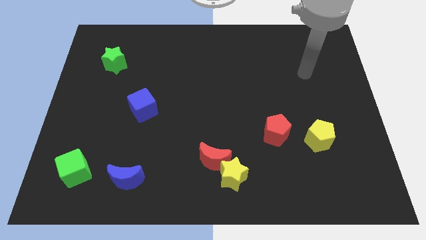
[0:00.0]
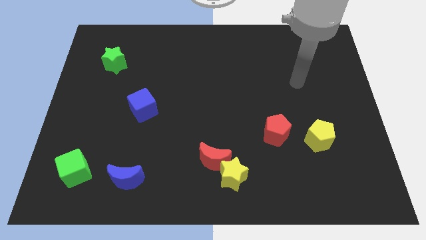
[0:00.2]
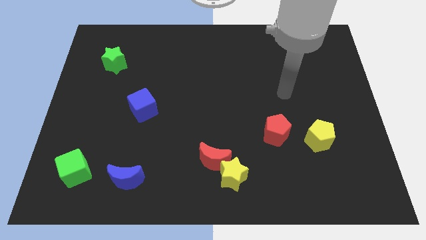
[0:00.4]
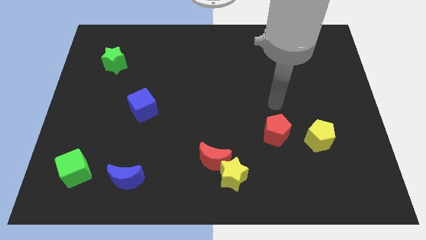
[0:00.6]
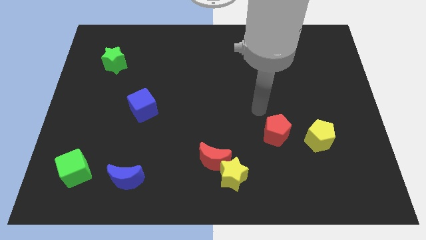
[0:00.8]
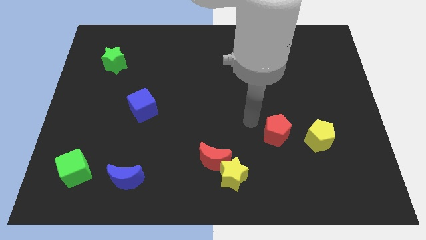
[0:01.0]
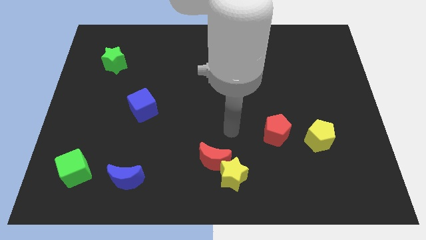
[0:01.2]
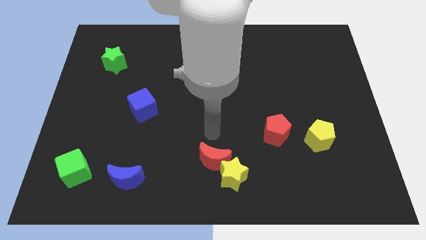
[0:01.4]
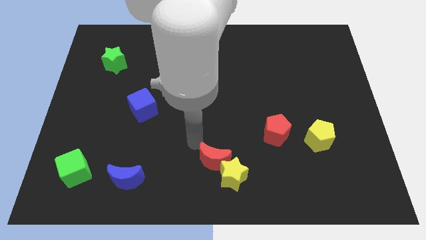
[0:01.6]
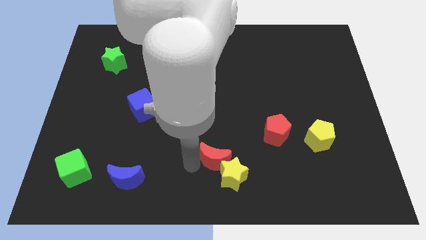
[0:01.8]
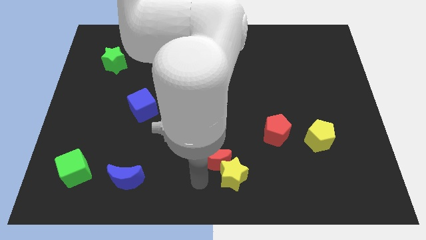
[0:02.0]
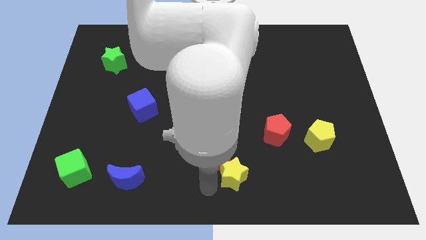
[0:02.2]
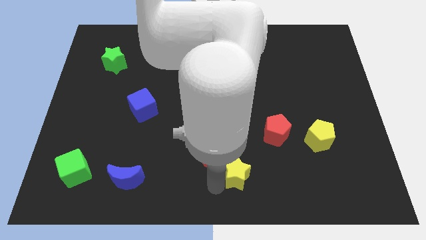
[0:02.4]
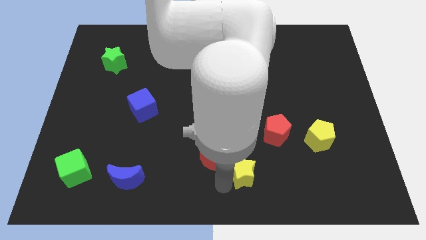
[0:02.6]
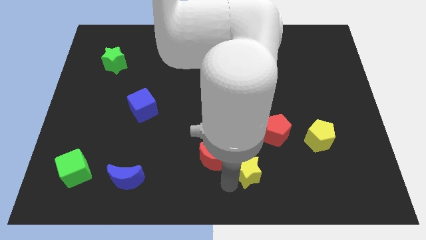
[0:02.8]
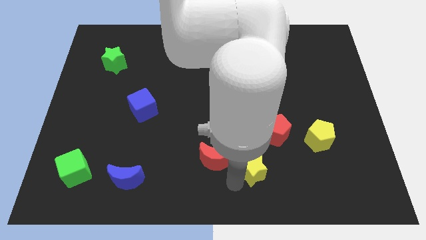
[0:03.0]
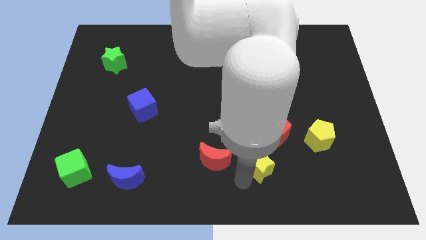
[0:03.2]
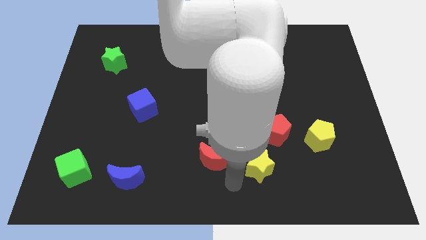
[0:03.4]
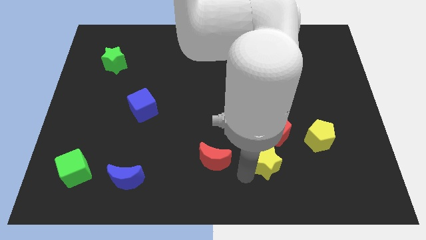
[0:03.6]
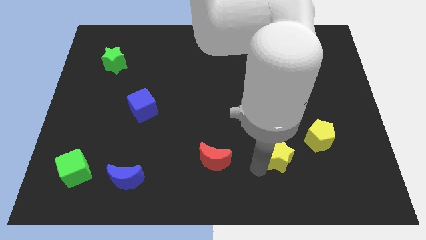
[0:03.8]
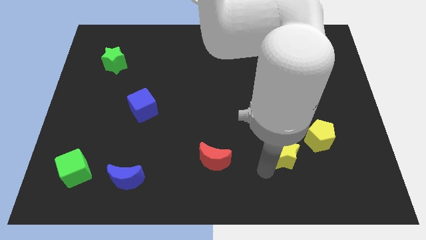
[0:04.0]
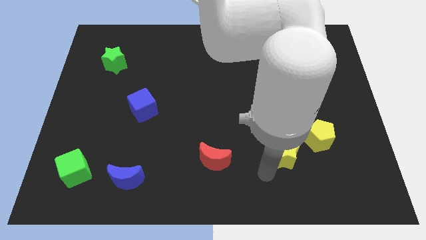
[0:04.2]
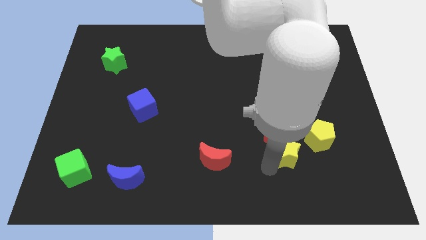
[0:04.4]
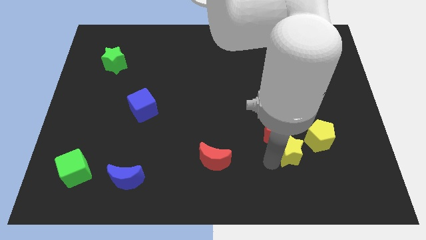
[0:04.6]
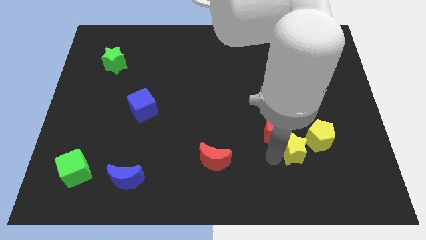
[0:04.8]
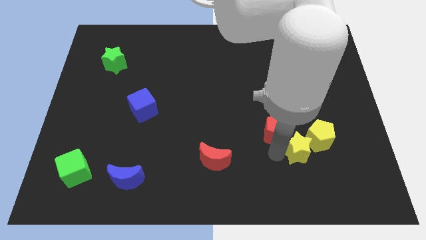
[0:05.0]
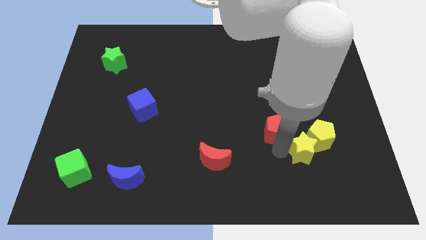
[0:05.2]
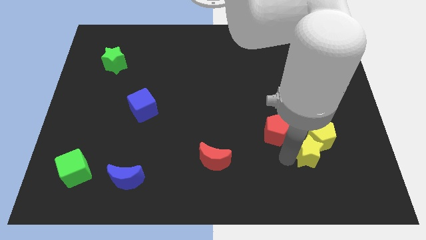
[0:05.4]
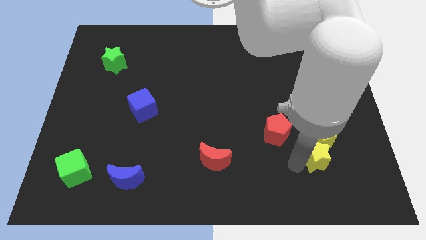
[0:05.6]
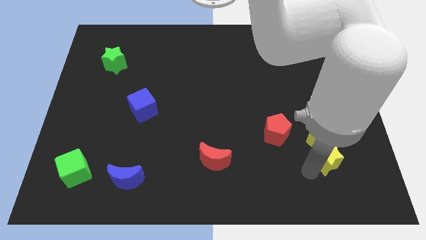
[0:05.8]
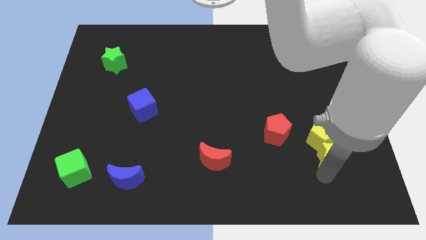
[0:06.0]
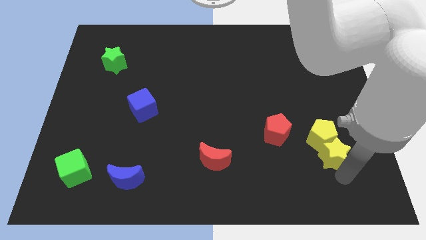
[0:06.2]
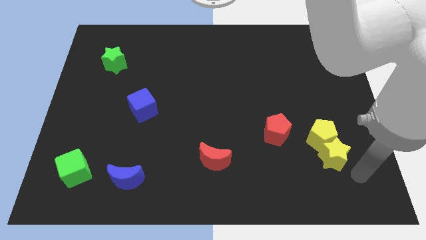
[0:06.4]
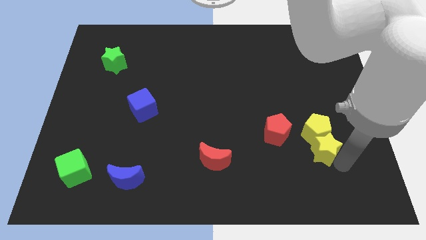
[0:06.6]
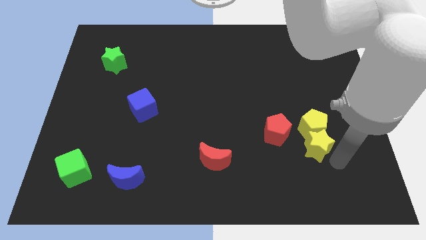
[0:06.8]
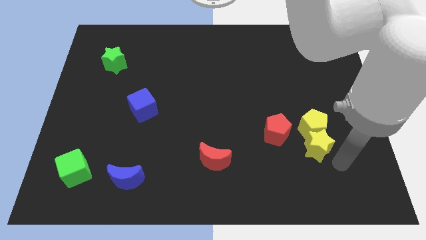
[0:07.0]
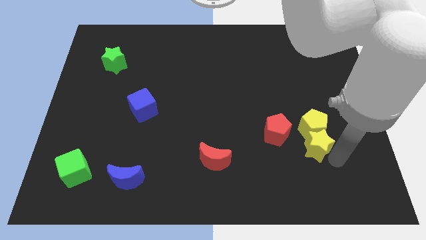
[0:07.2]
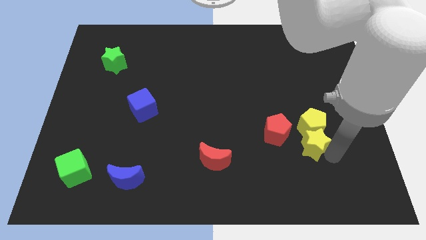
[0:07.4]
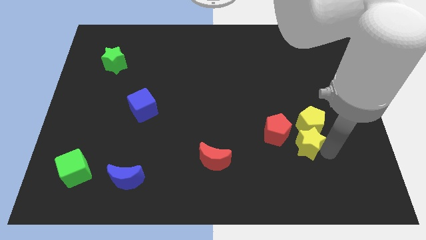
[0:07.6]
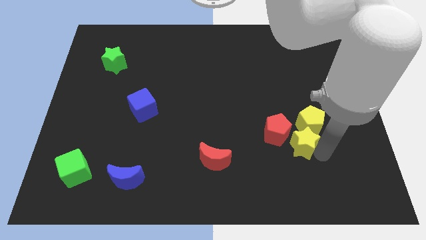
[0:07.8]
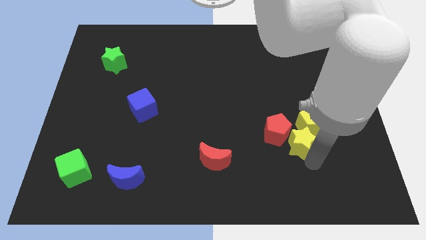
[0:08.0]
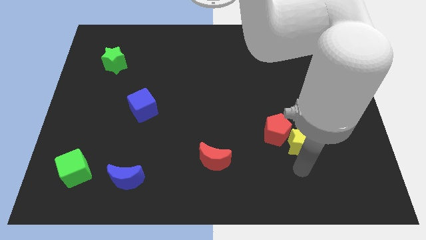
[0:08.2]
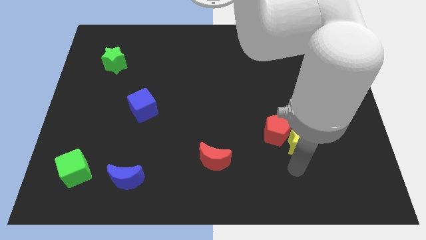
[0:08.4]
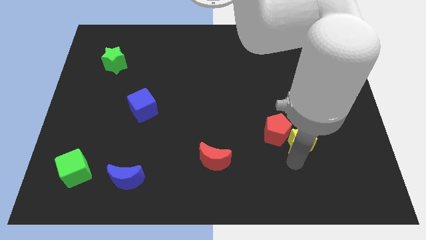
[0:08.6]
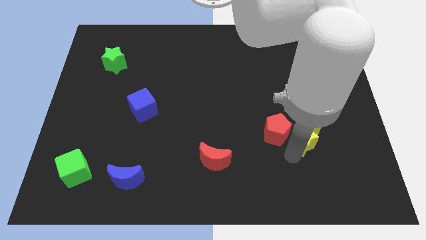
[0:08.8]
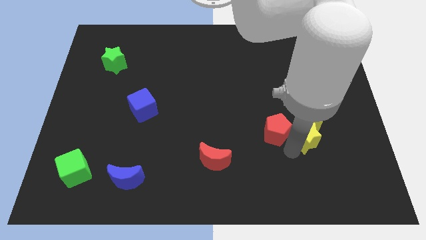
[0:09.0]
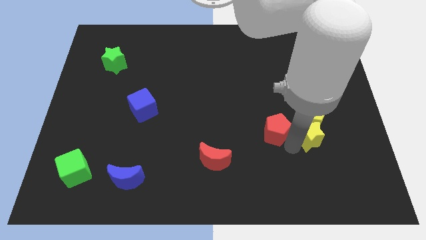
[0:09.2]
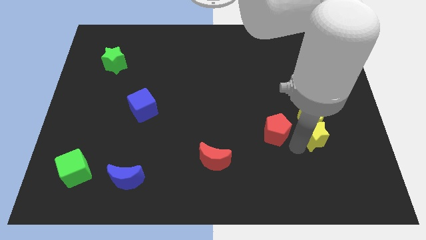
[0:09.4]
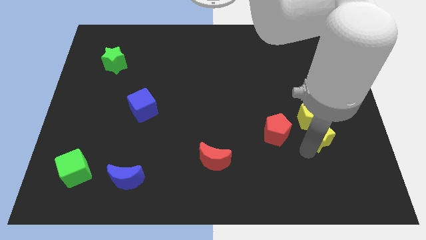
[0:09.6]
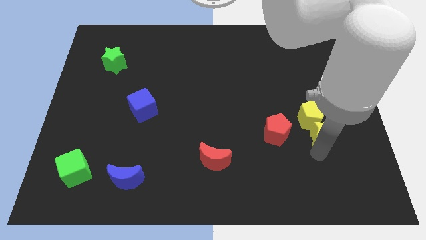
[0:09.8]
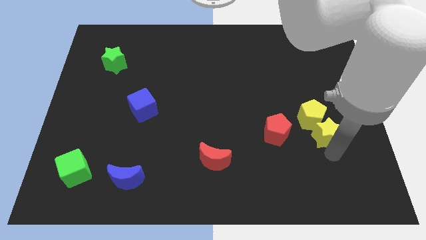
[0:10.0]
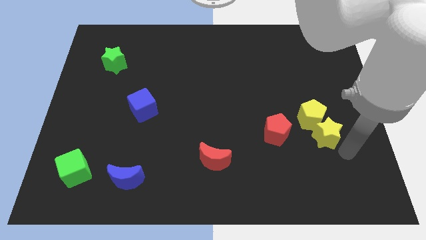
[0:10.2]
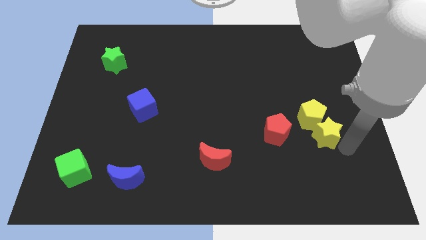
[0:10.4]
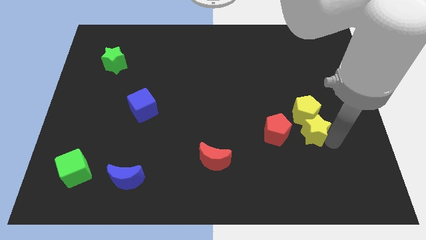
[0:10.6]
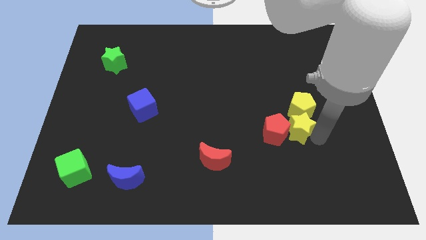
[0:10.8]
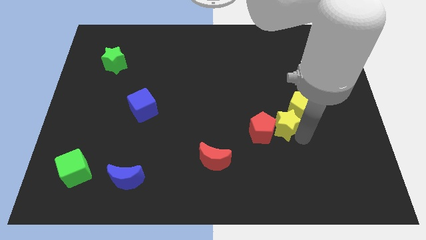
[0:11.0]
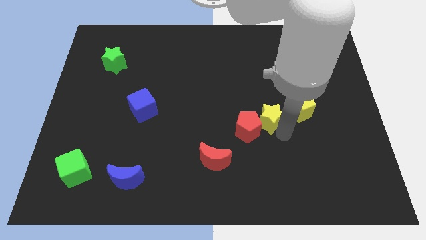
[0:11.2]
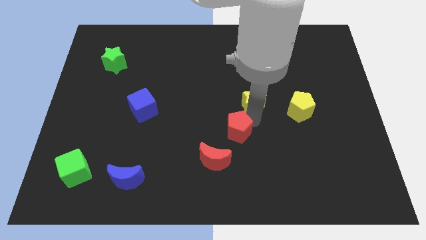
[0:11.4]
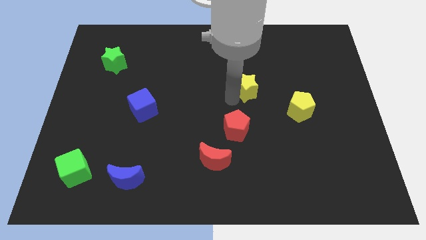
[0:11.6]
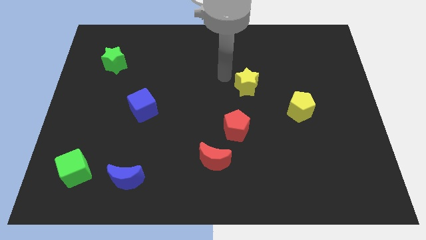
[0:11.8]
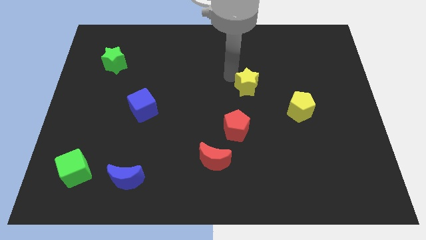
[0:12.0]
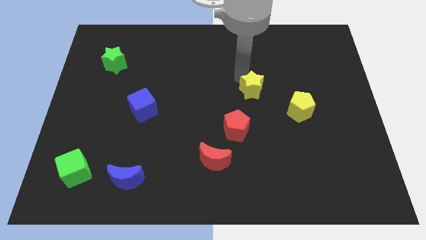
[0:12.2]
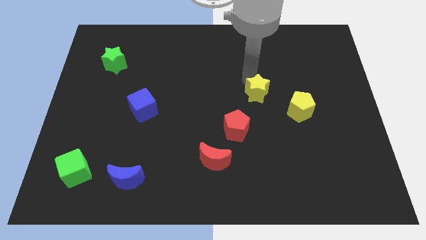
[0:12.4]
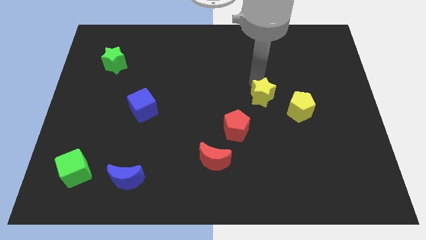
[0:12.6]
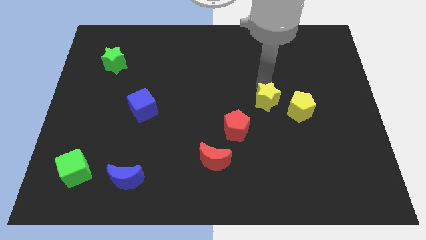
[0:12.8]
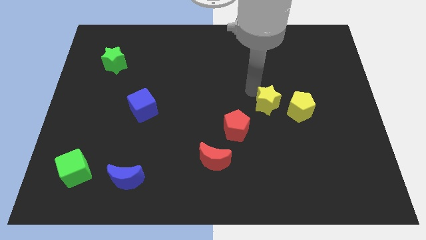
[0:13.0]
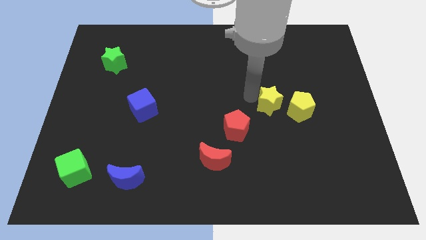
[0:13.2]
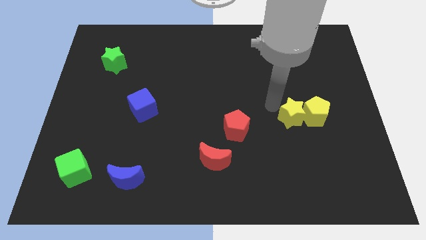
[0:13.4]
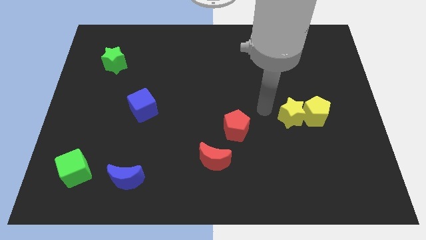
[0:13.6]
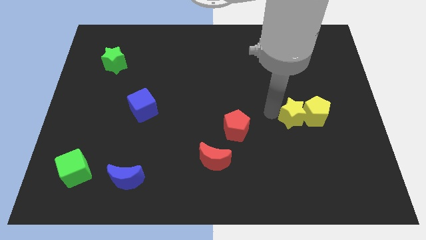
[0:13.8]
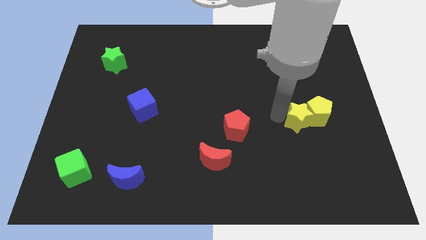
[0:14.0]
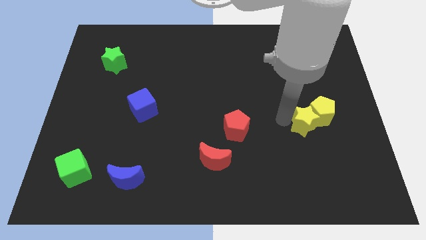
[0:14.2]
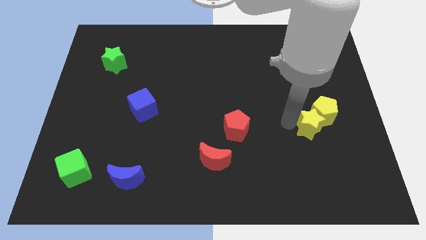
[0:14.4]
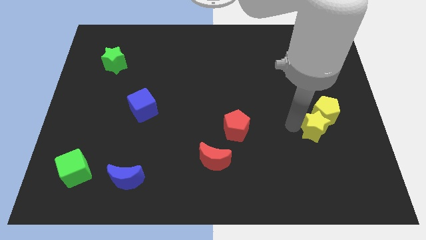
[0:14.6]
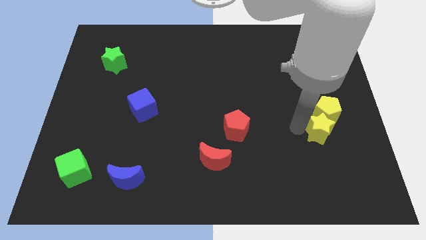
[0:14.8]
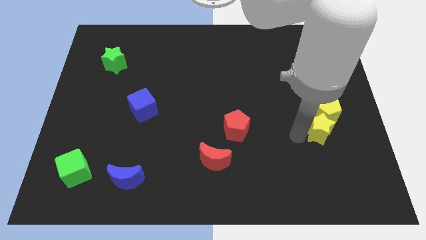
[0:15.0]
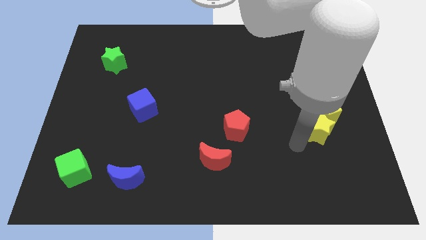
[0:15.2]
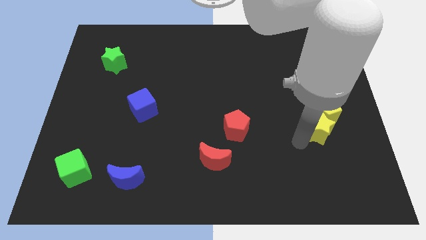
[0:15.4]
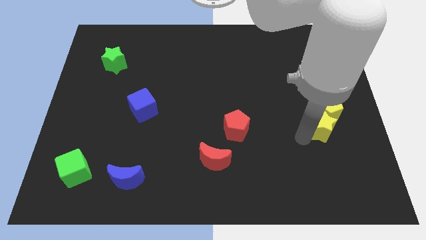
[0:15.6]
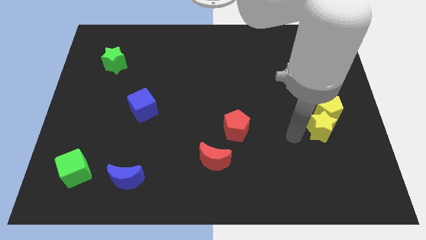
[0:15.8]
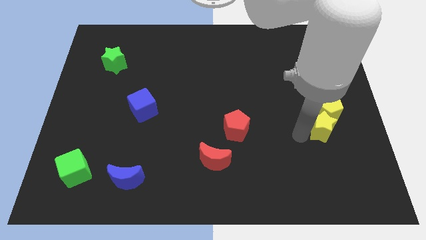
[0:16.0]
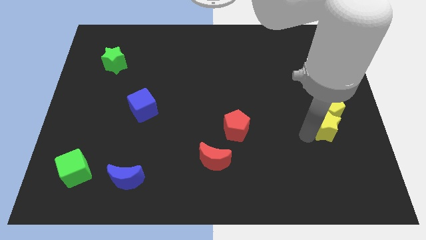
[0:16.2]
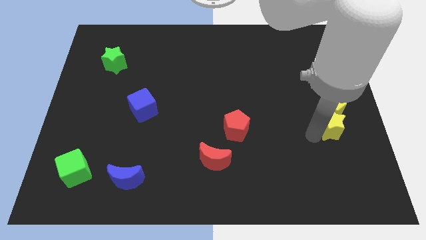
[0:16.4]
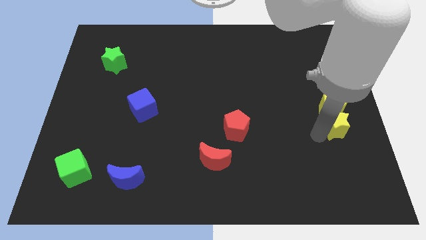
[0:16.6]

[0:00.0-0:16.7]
put the yellow star to the right side
